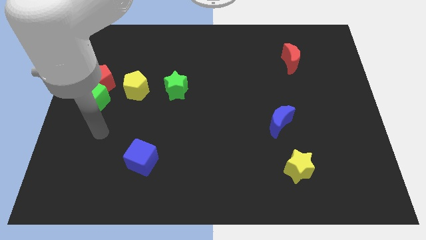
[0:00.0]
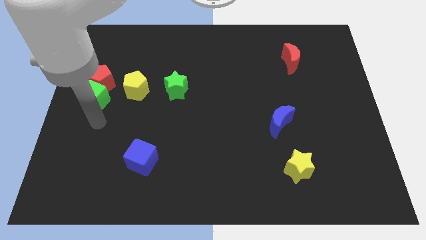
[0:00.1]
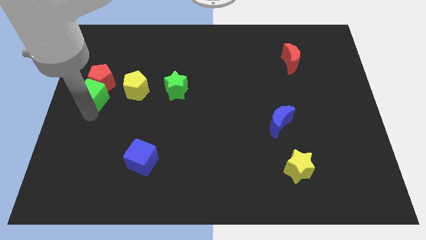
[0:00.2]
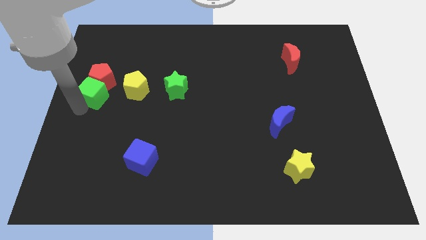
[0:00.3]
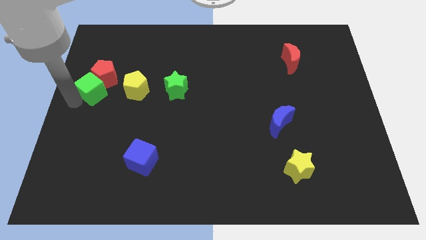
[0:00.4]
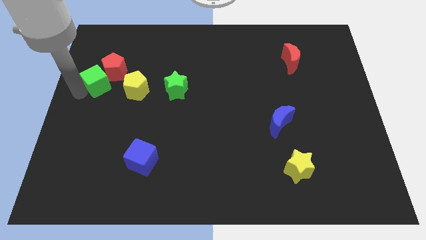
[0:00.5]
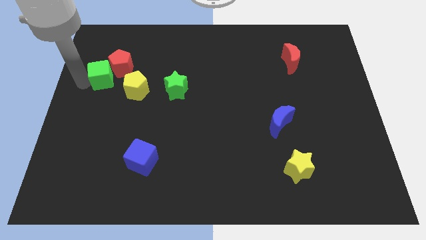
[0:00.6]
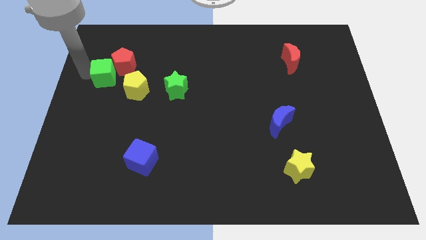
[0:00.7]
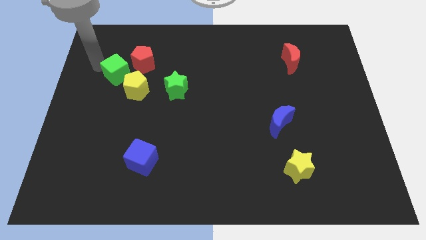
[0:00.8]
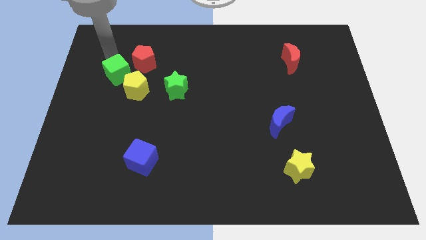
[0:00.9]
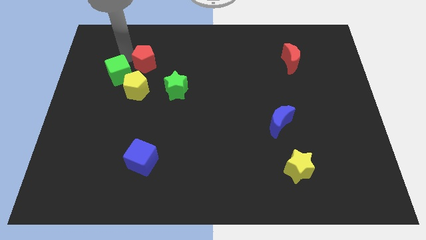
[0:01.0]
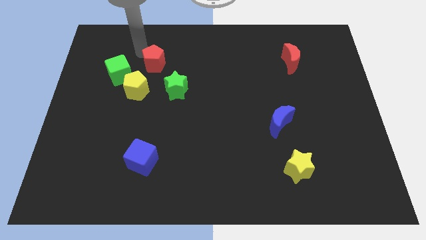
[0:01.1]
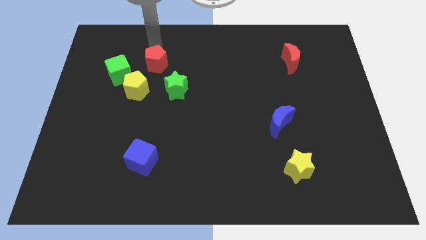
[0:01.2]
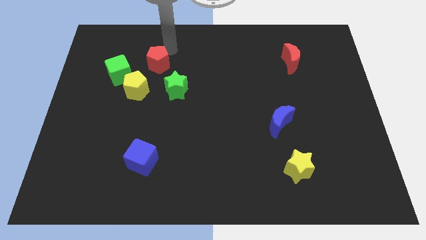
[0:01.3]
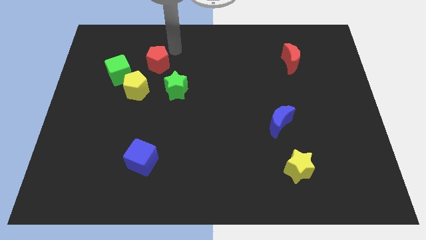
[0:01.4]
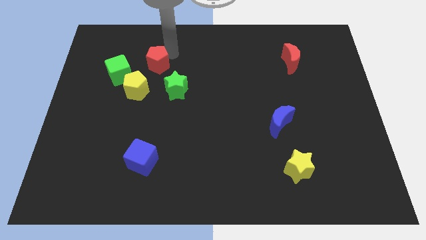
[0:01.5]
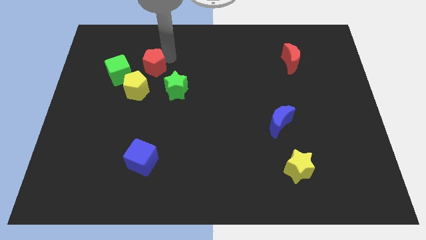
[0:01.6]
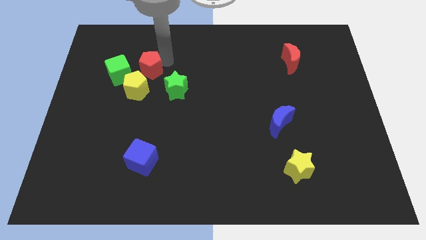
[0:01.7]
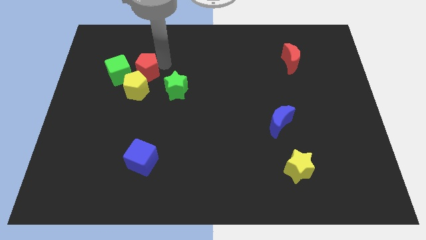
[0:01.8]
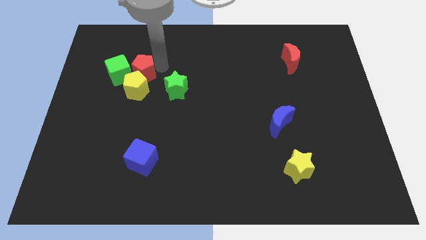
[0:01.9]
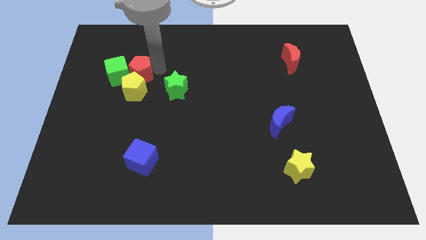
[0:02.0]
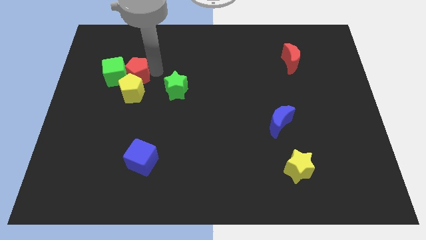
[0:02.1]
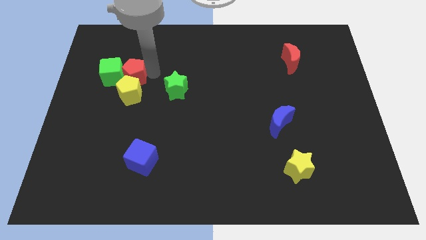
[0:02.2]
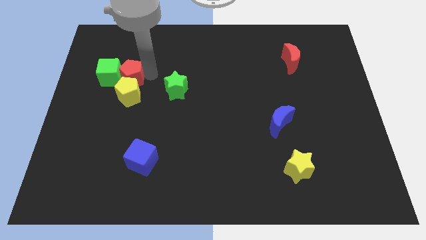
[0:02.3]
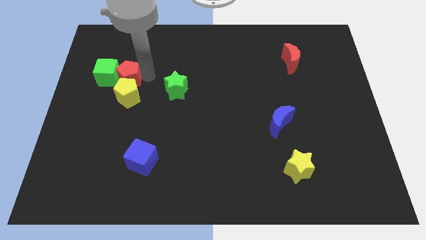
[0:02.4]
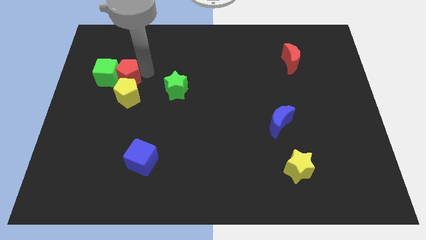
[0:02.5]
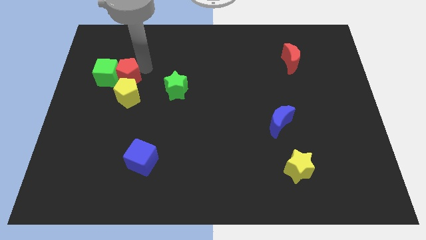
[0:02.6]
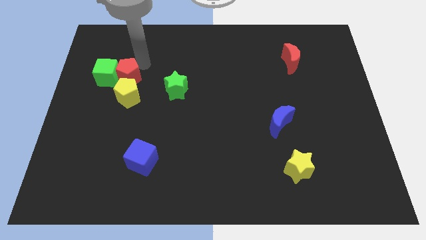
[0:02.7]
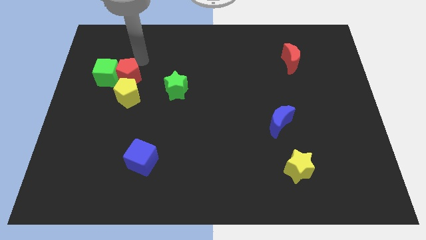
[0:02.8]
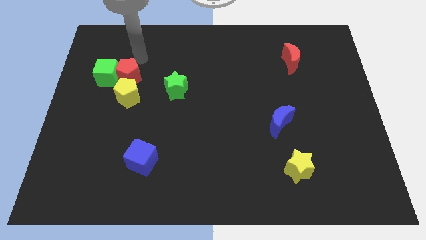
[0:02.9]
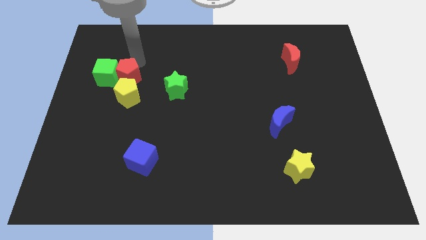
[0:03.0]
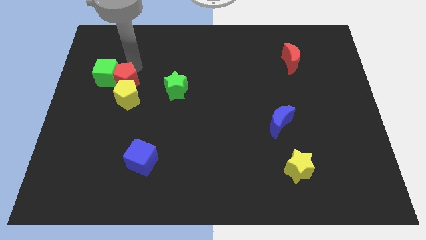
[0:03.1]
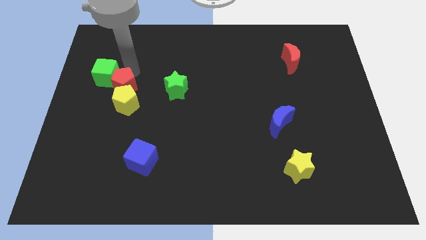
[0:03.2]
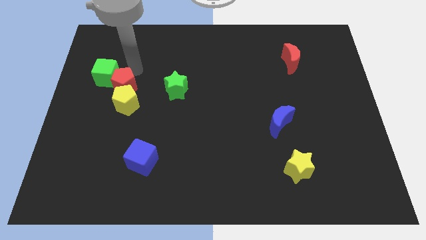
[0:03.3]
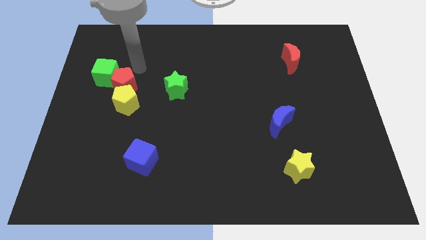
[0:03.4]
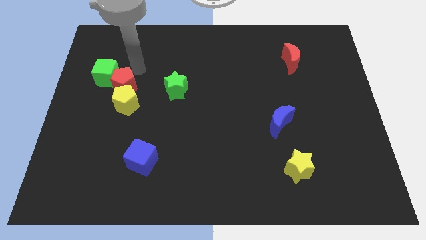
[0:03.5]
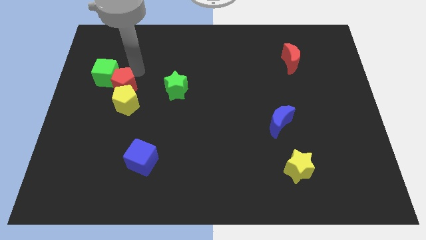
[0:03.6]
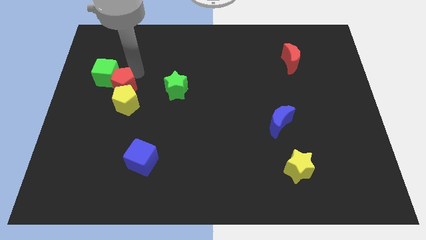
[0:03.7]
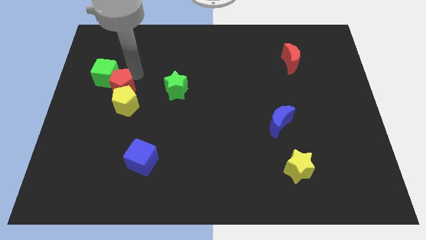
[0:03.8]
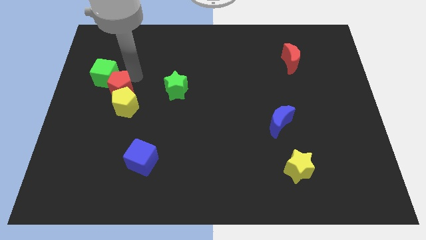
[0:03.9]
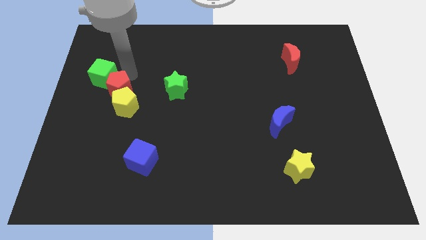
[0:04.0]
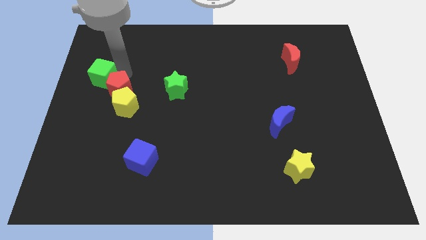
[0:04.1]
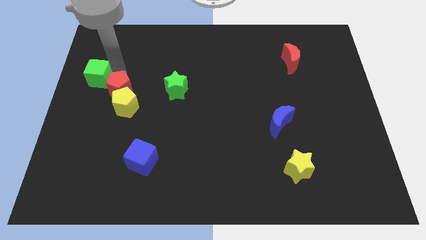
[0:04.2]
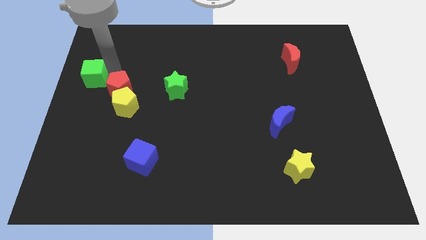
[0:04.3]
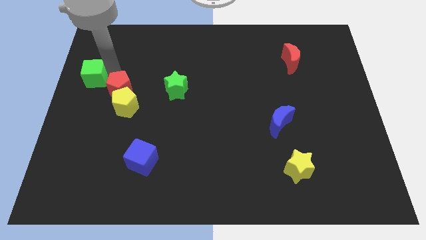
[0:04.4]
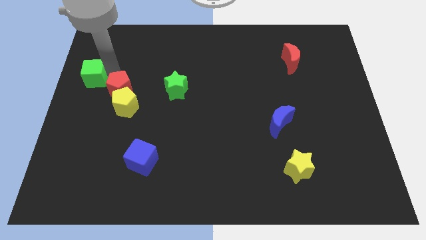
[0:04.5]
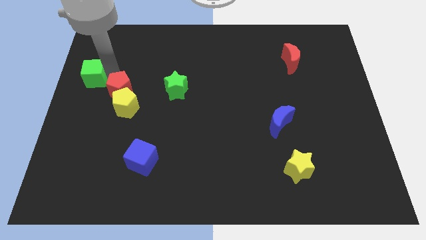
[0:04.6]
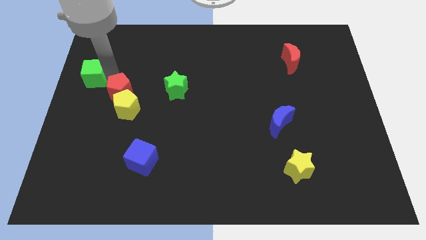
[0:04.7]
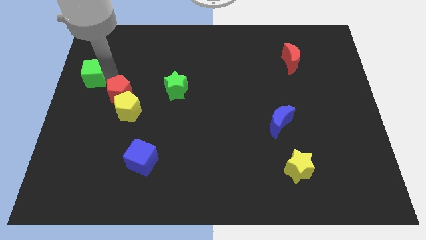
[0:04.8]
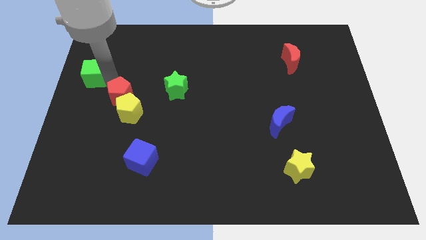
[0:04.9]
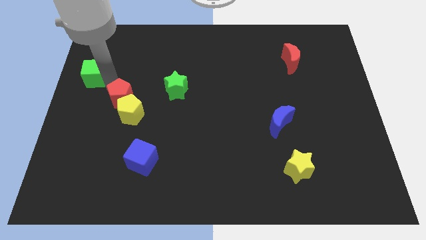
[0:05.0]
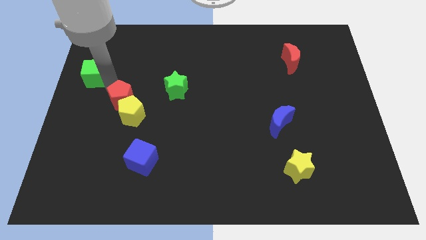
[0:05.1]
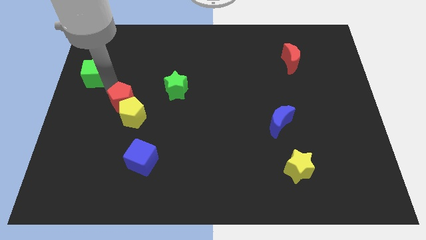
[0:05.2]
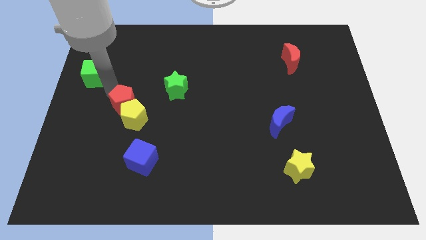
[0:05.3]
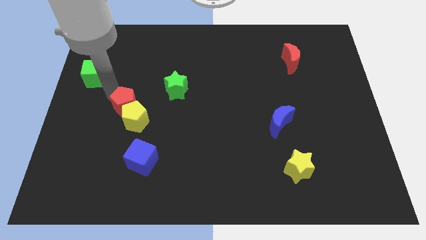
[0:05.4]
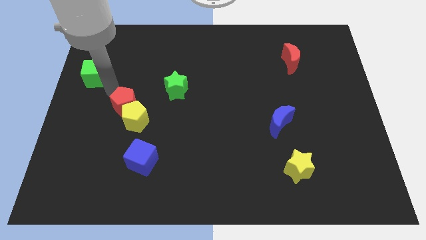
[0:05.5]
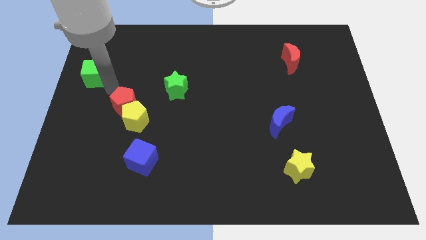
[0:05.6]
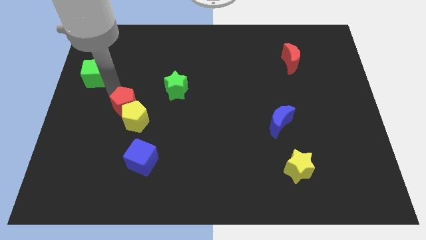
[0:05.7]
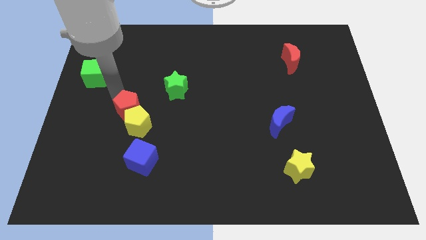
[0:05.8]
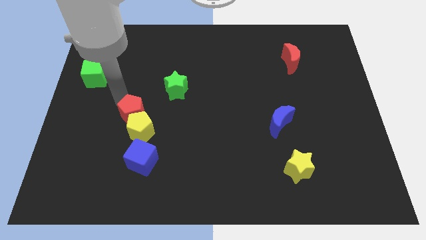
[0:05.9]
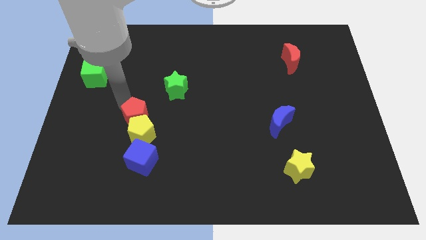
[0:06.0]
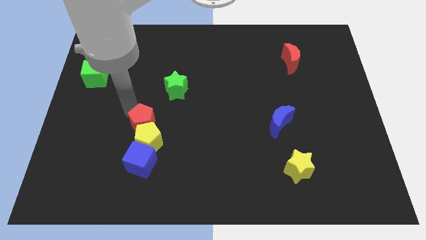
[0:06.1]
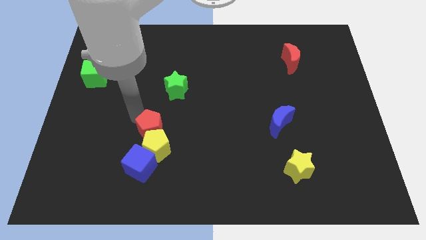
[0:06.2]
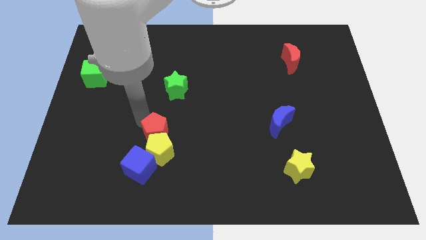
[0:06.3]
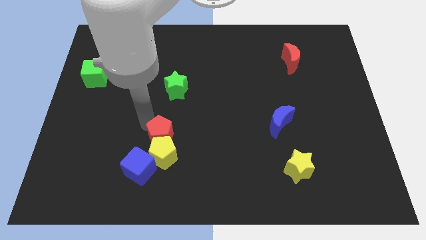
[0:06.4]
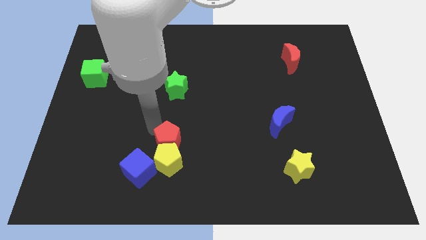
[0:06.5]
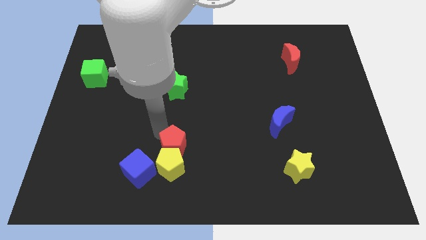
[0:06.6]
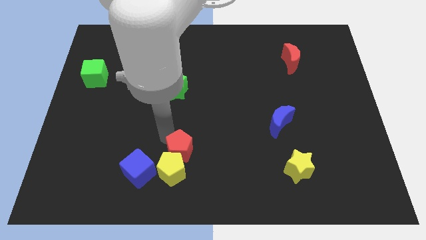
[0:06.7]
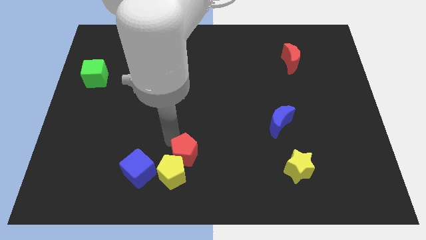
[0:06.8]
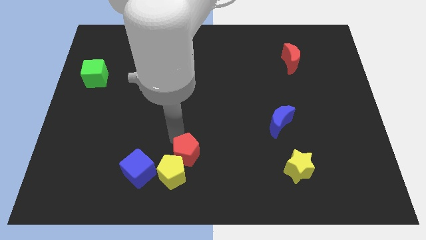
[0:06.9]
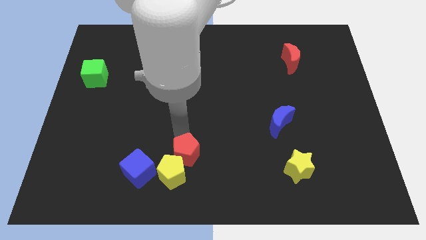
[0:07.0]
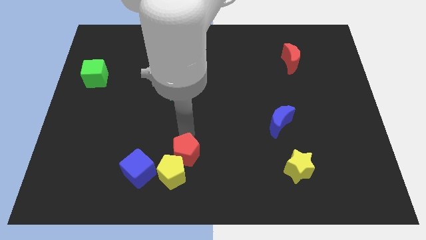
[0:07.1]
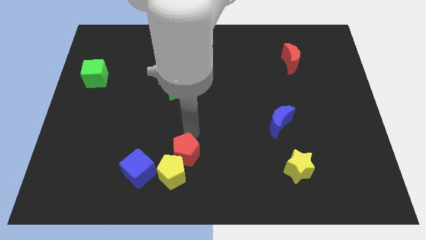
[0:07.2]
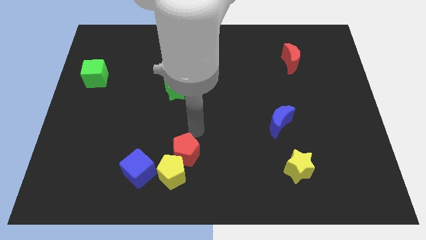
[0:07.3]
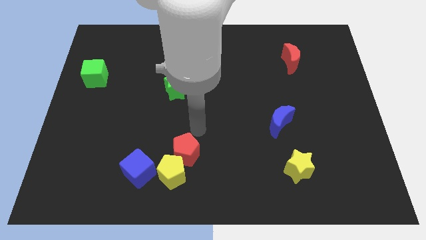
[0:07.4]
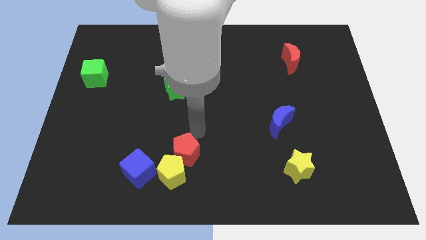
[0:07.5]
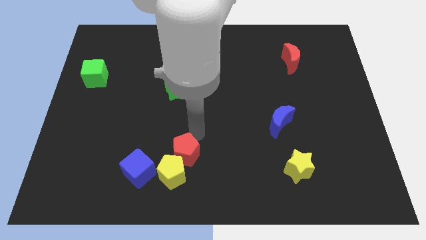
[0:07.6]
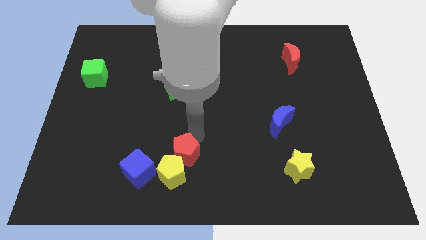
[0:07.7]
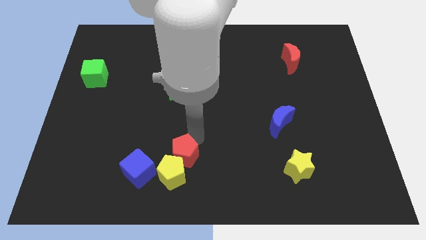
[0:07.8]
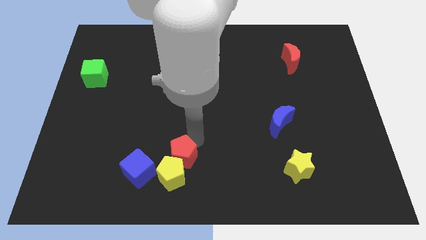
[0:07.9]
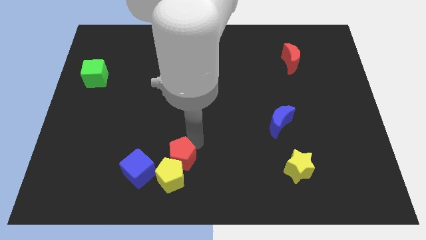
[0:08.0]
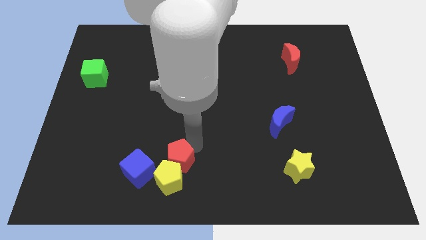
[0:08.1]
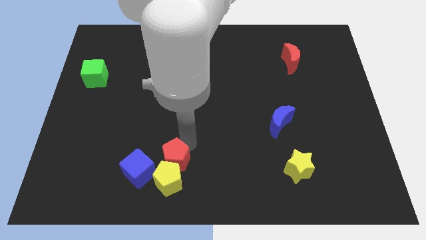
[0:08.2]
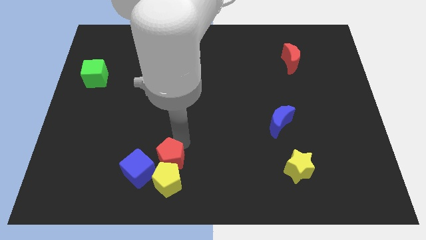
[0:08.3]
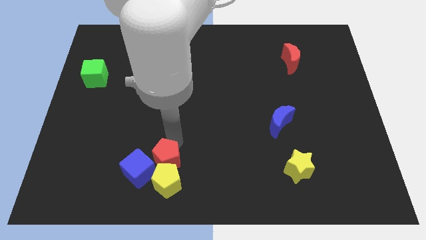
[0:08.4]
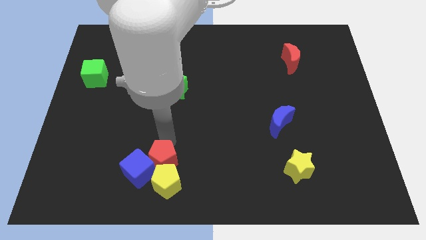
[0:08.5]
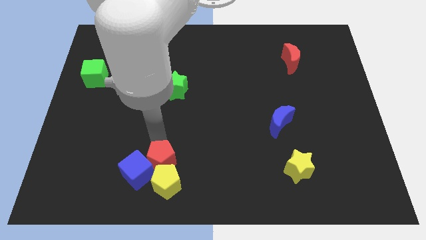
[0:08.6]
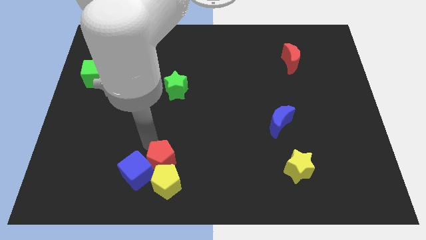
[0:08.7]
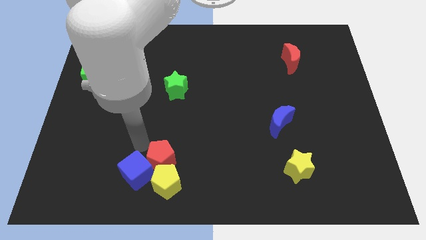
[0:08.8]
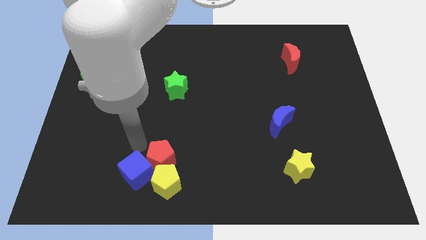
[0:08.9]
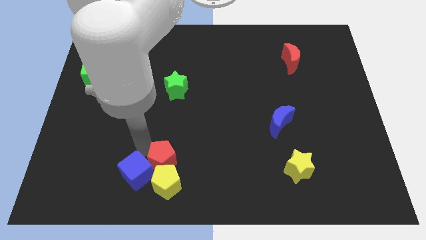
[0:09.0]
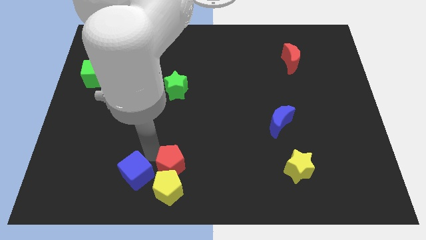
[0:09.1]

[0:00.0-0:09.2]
slide the red pentagon to the bottom side
